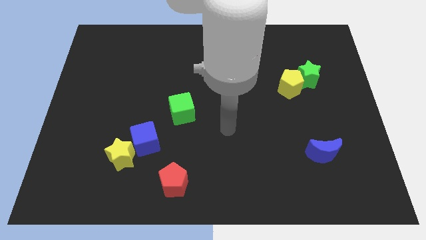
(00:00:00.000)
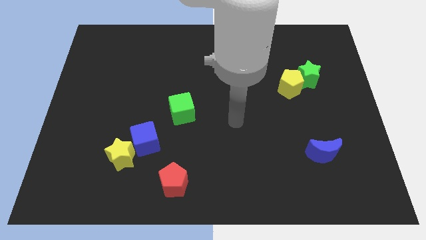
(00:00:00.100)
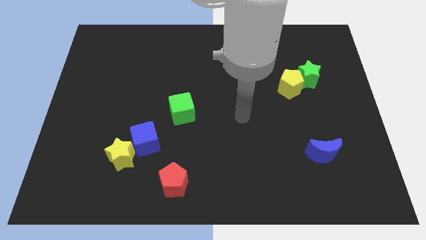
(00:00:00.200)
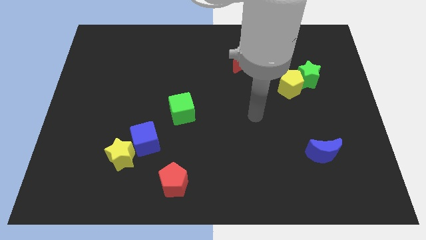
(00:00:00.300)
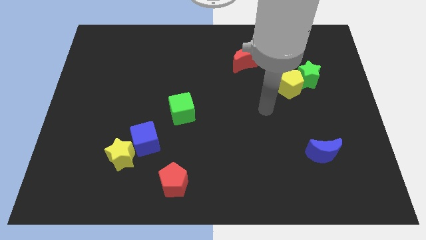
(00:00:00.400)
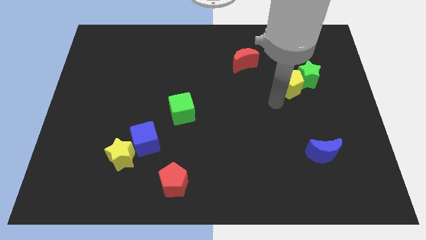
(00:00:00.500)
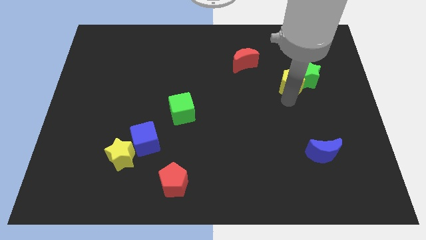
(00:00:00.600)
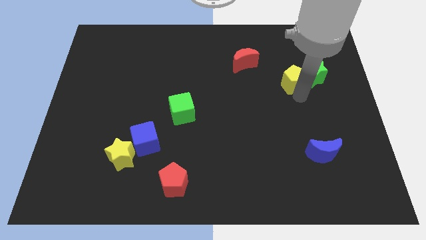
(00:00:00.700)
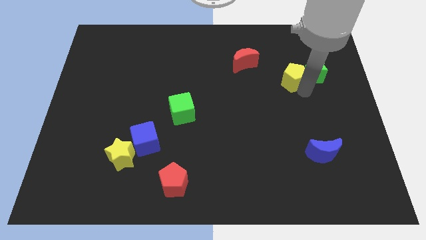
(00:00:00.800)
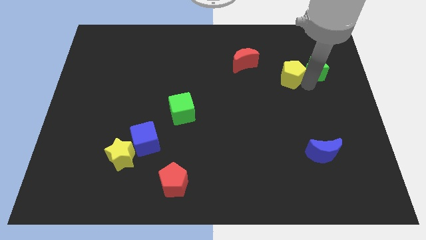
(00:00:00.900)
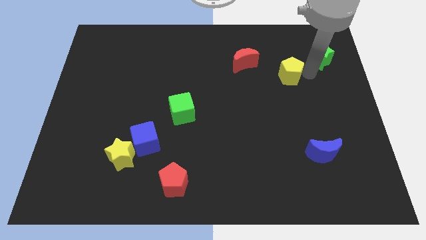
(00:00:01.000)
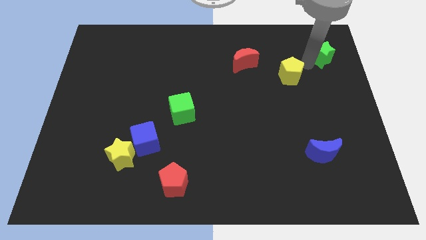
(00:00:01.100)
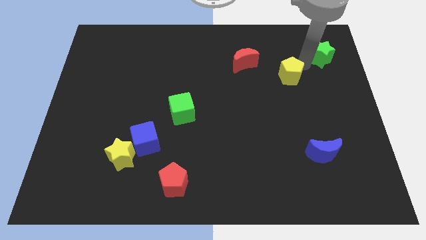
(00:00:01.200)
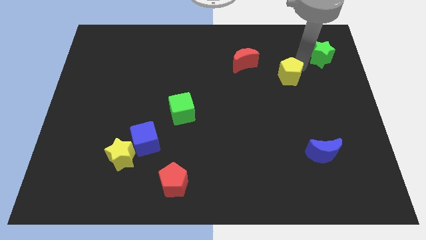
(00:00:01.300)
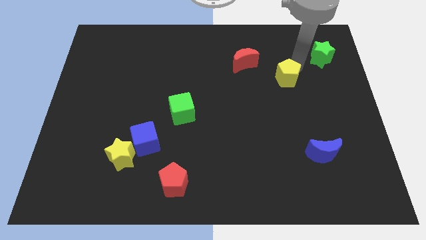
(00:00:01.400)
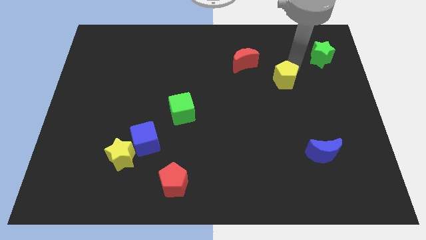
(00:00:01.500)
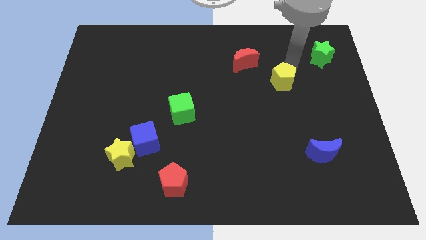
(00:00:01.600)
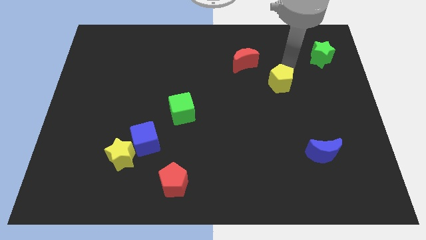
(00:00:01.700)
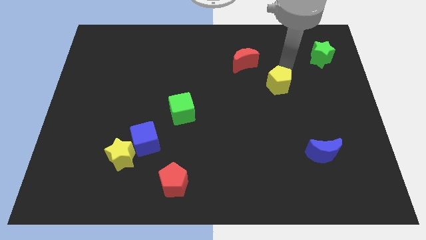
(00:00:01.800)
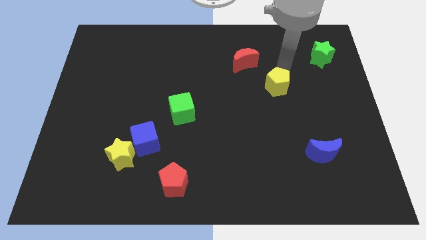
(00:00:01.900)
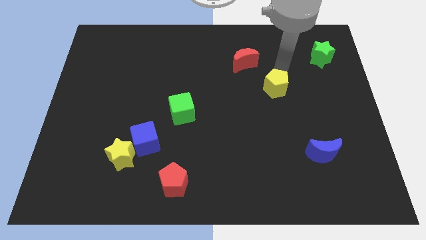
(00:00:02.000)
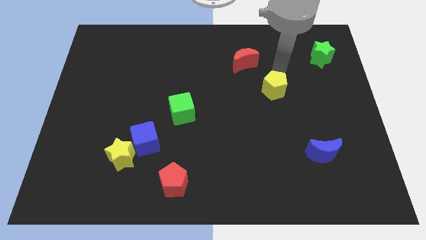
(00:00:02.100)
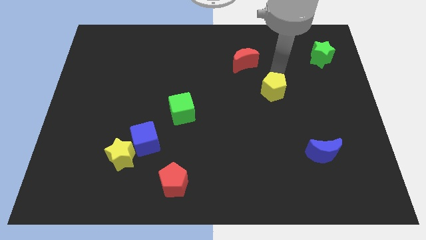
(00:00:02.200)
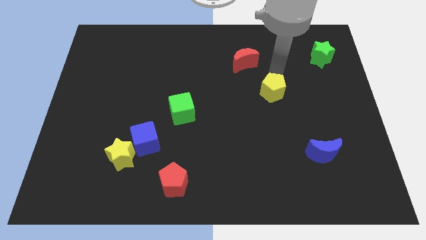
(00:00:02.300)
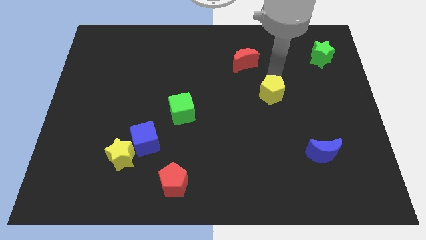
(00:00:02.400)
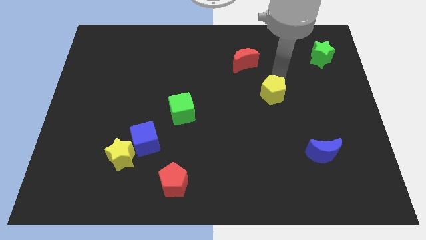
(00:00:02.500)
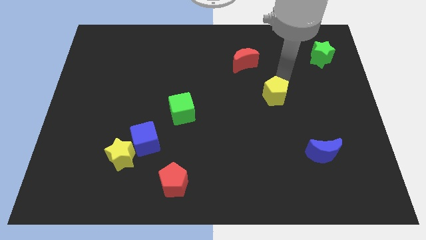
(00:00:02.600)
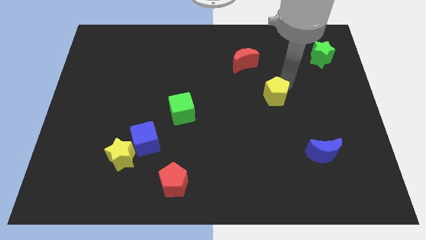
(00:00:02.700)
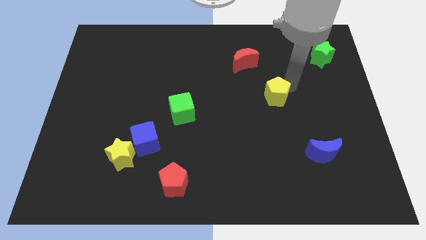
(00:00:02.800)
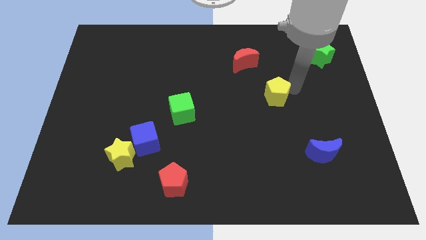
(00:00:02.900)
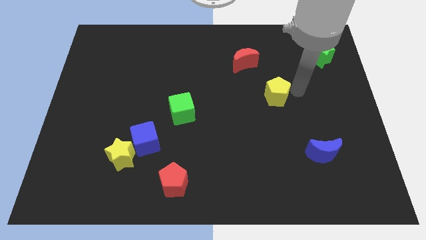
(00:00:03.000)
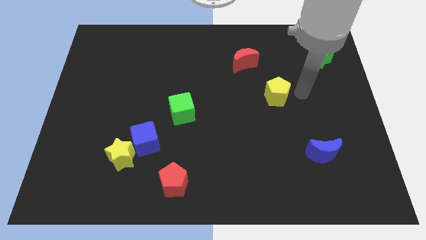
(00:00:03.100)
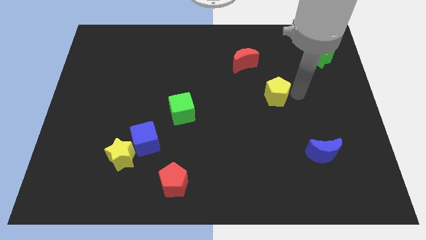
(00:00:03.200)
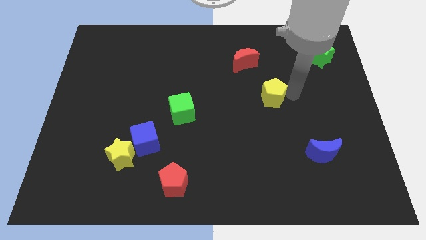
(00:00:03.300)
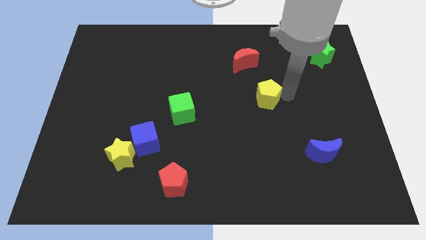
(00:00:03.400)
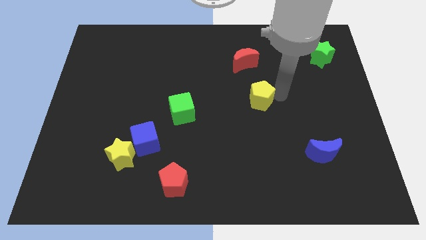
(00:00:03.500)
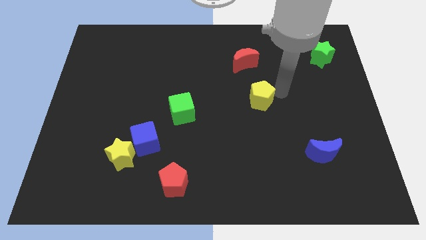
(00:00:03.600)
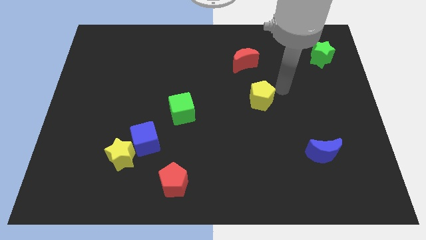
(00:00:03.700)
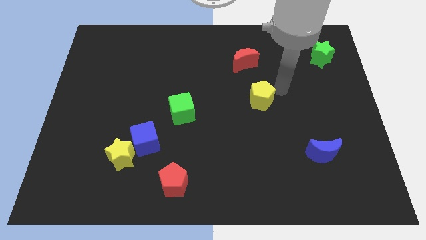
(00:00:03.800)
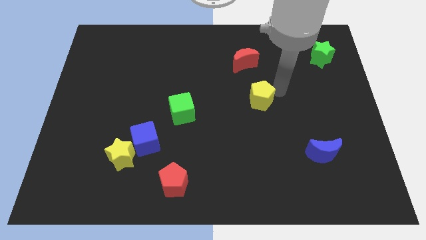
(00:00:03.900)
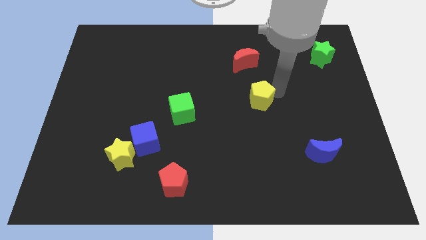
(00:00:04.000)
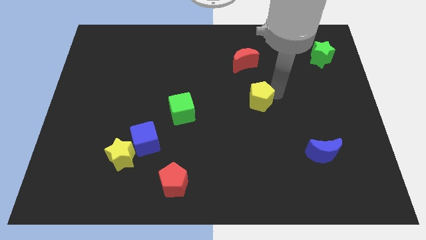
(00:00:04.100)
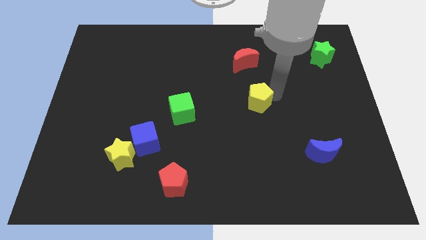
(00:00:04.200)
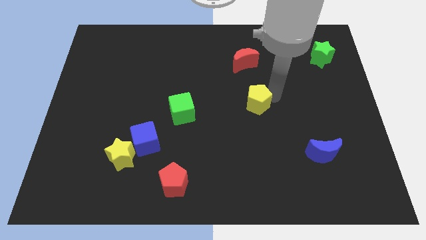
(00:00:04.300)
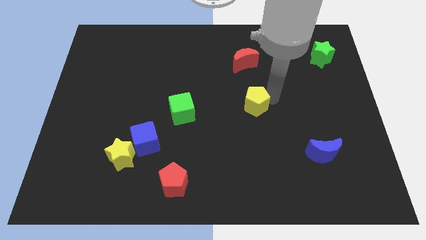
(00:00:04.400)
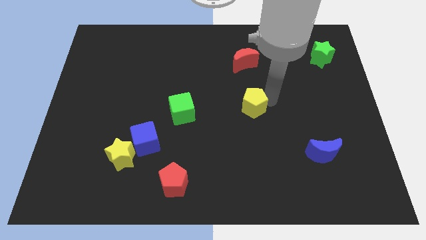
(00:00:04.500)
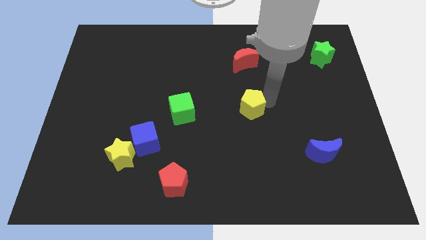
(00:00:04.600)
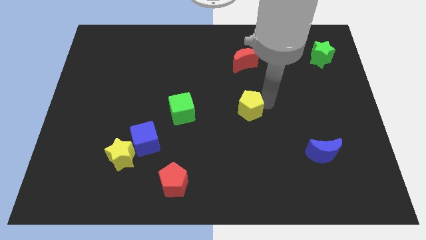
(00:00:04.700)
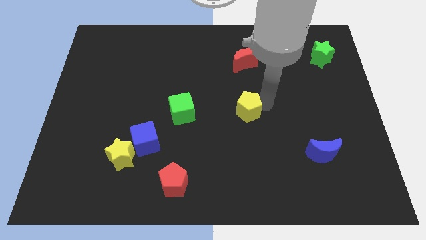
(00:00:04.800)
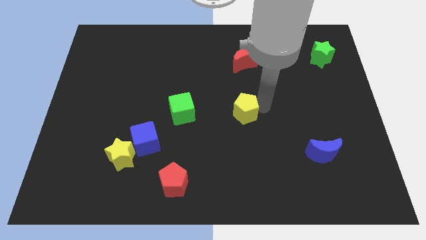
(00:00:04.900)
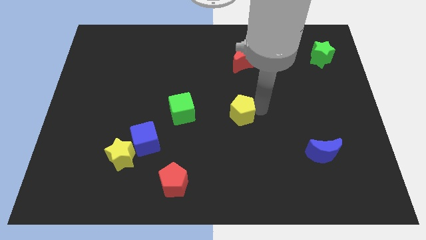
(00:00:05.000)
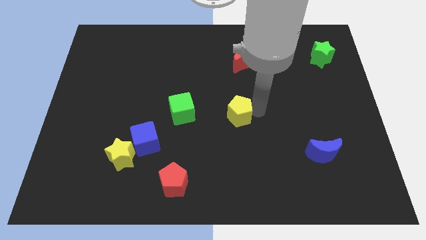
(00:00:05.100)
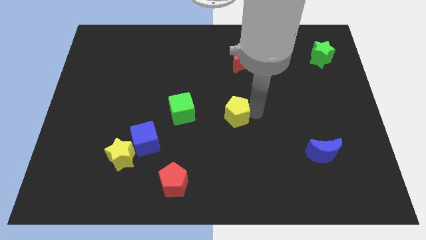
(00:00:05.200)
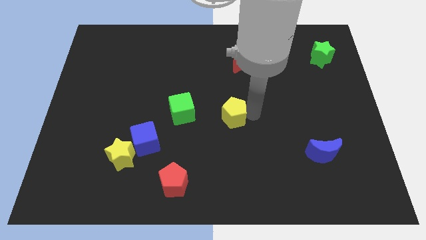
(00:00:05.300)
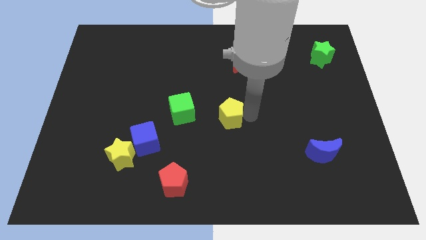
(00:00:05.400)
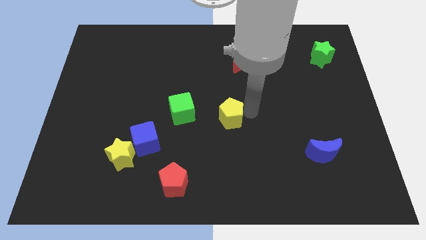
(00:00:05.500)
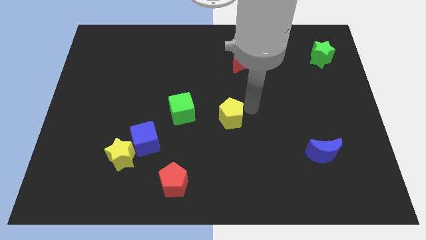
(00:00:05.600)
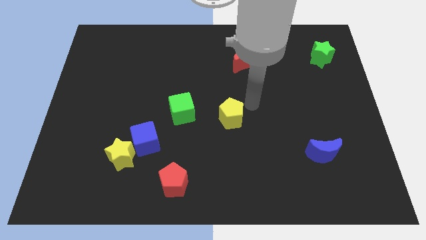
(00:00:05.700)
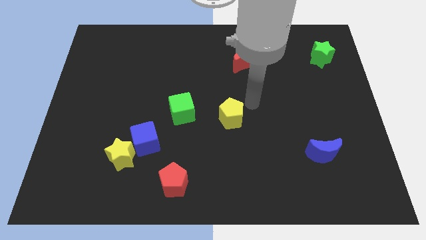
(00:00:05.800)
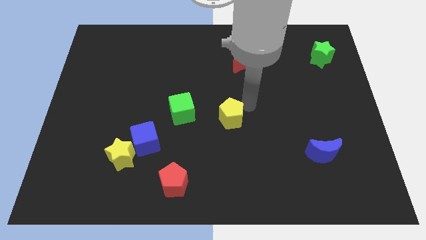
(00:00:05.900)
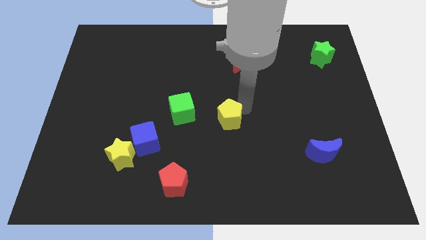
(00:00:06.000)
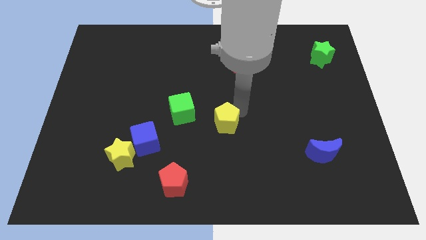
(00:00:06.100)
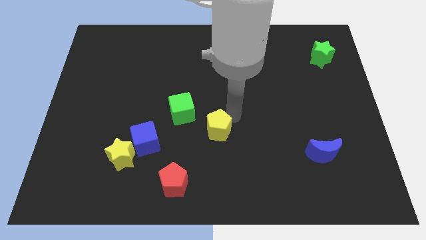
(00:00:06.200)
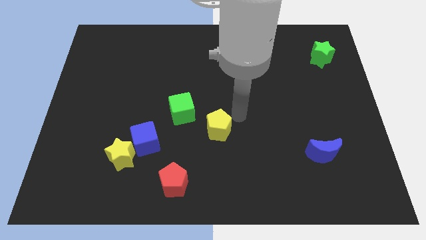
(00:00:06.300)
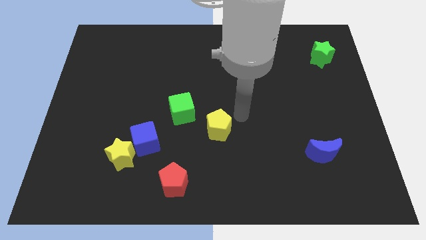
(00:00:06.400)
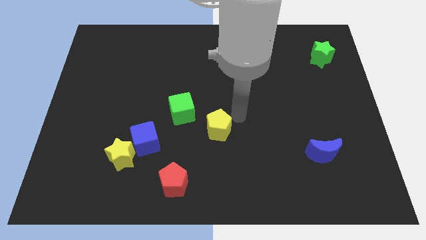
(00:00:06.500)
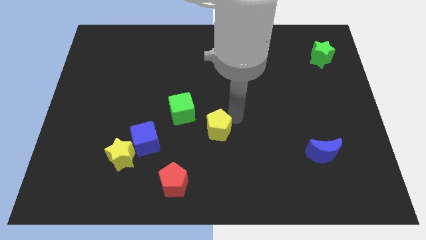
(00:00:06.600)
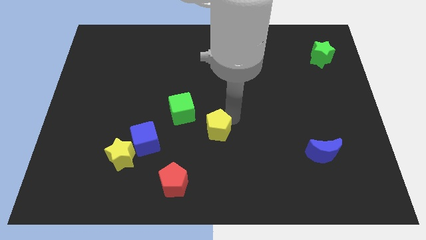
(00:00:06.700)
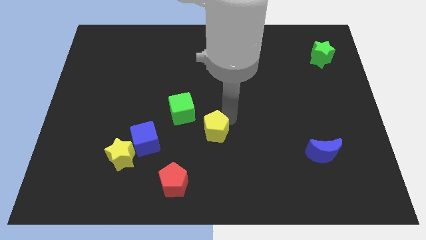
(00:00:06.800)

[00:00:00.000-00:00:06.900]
move the yellow pentagon to the right side of the blue cube

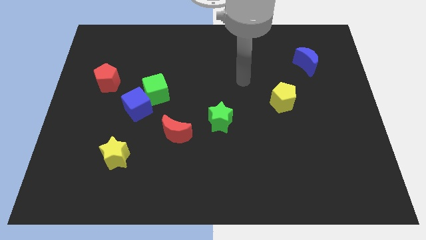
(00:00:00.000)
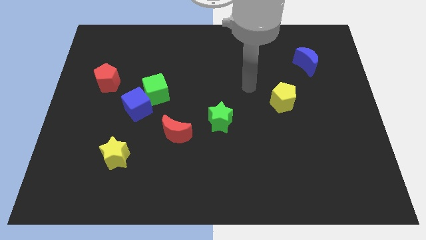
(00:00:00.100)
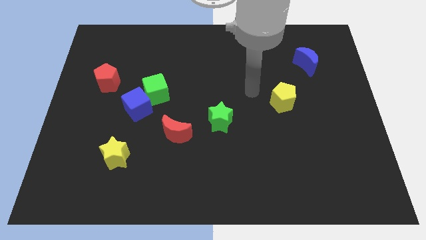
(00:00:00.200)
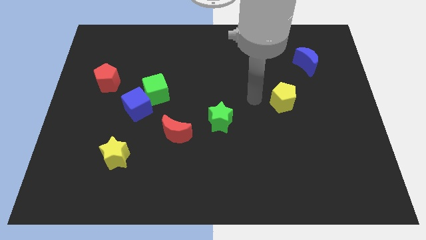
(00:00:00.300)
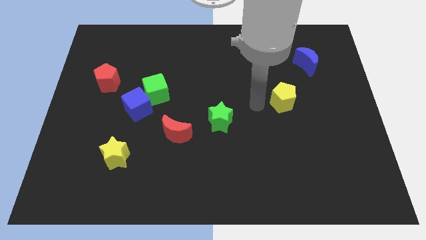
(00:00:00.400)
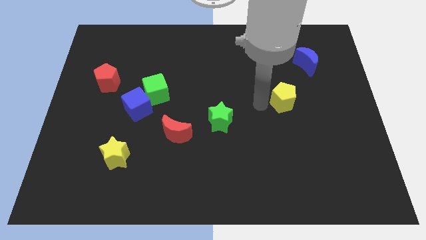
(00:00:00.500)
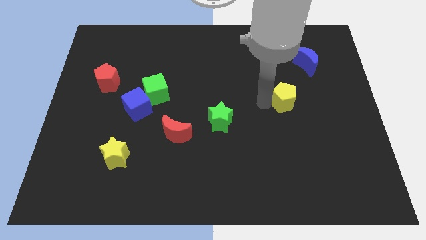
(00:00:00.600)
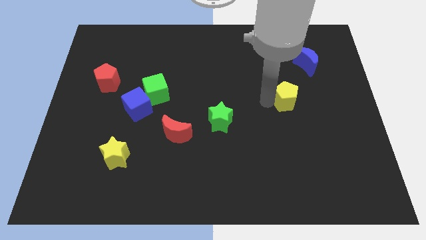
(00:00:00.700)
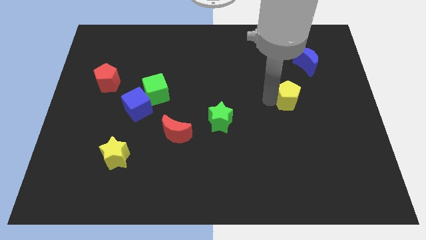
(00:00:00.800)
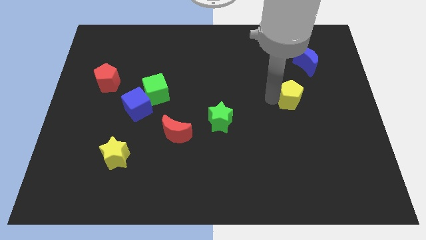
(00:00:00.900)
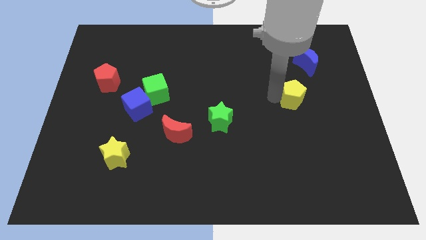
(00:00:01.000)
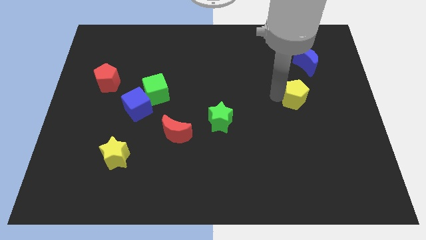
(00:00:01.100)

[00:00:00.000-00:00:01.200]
push the yellow pentagon to the bottom of the blue moon
